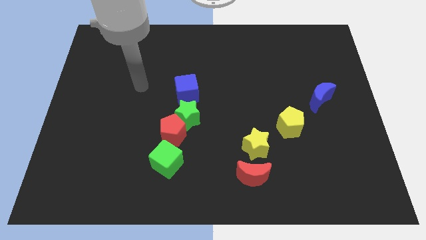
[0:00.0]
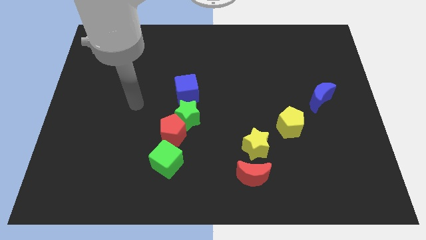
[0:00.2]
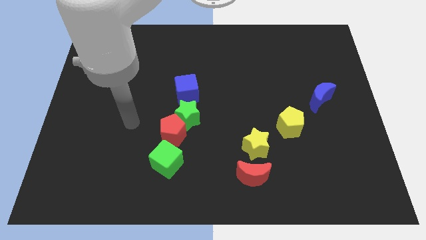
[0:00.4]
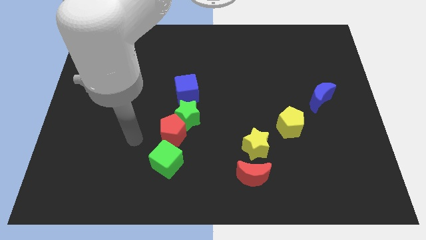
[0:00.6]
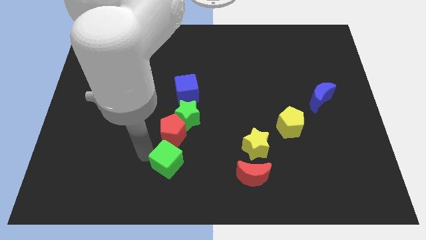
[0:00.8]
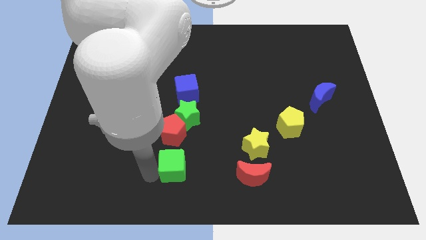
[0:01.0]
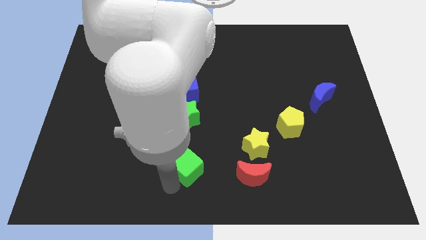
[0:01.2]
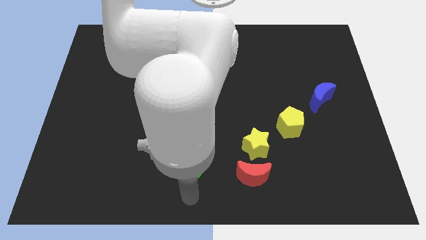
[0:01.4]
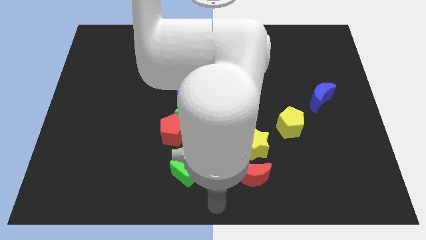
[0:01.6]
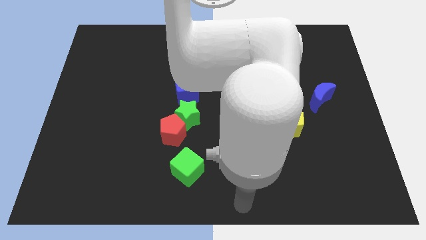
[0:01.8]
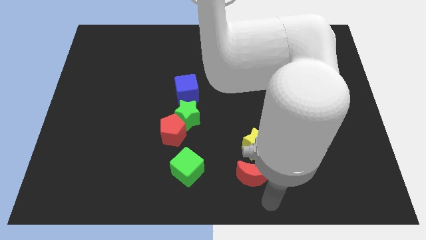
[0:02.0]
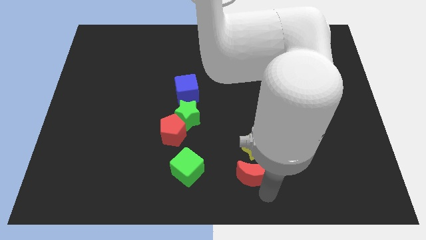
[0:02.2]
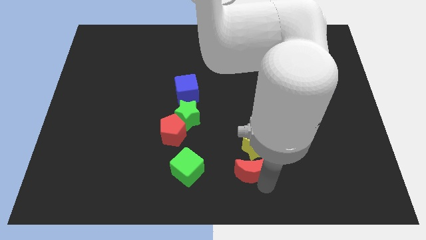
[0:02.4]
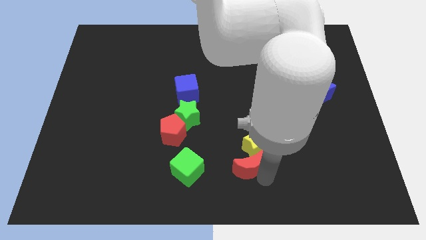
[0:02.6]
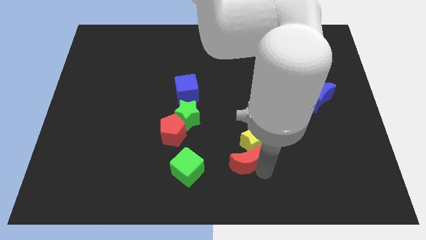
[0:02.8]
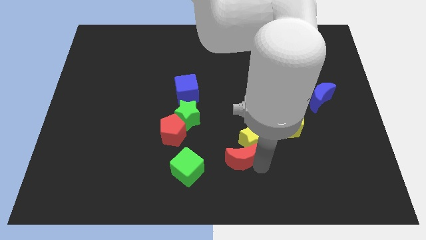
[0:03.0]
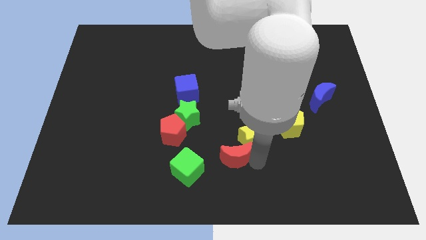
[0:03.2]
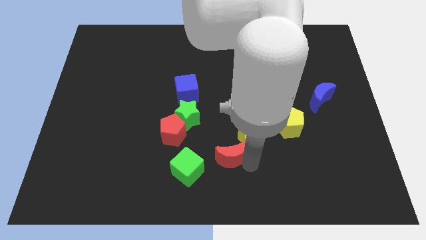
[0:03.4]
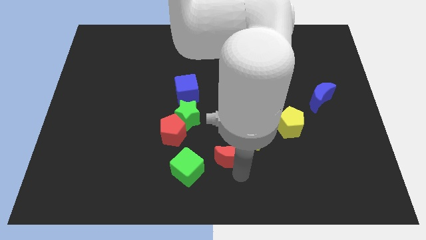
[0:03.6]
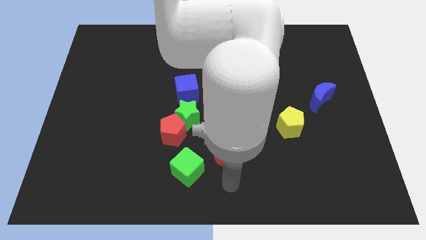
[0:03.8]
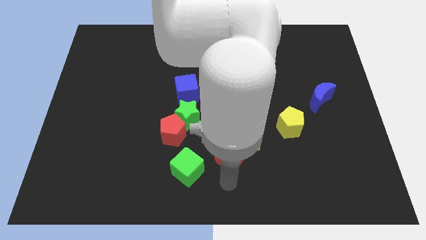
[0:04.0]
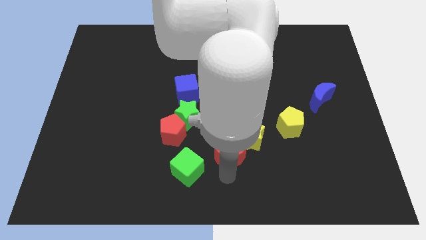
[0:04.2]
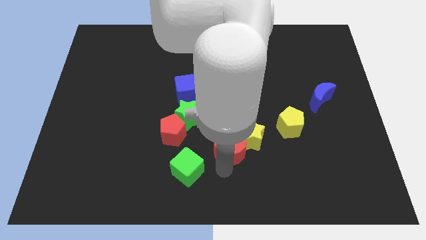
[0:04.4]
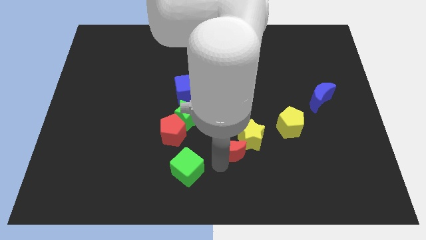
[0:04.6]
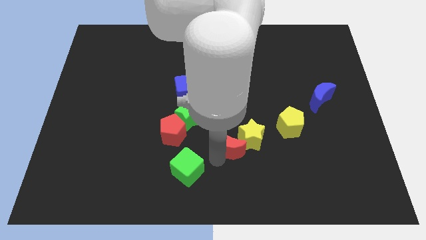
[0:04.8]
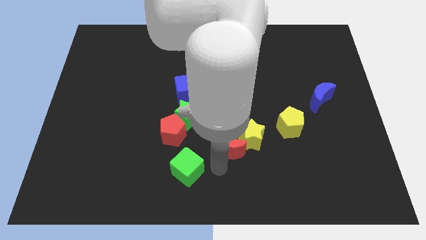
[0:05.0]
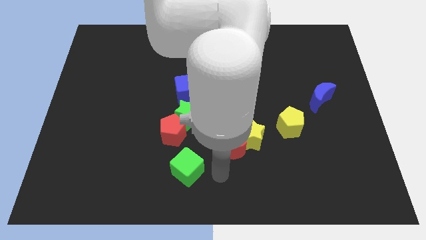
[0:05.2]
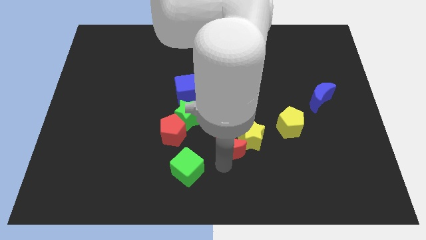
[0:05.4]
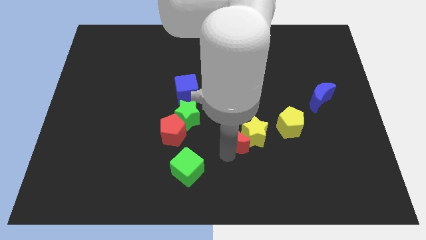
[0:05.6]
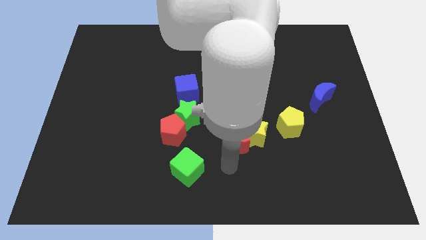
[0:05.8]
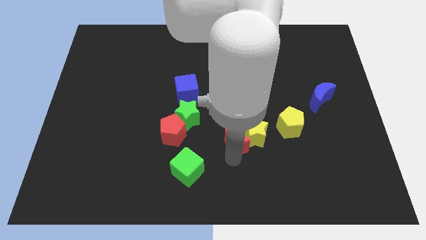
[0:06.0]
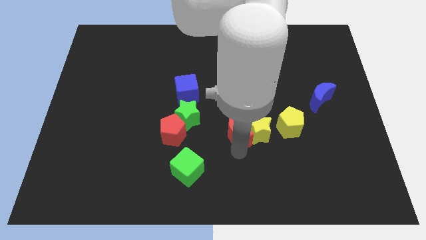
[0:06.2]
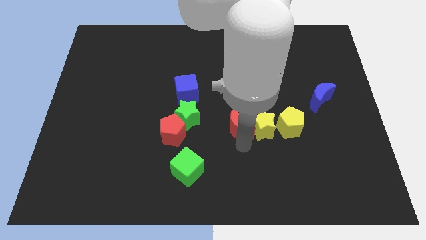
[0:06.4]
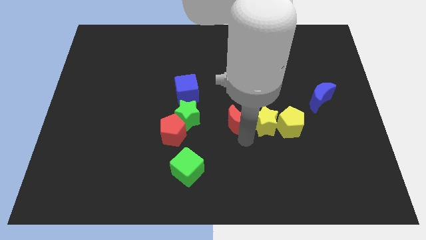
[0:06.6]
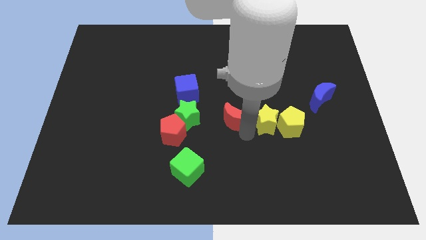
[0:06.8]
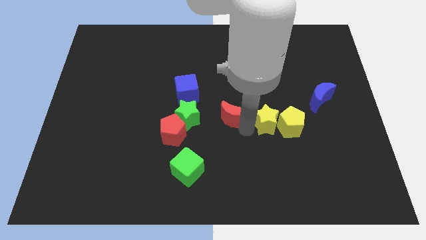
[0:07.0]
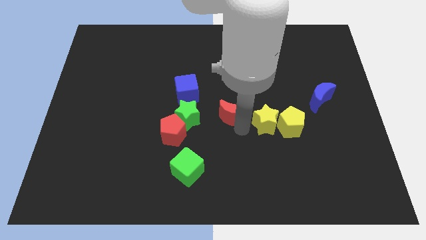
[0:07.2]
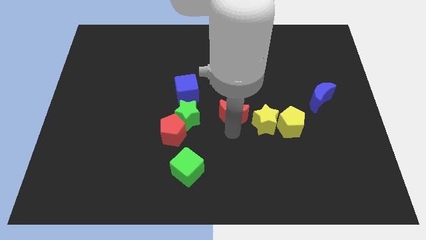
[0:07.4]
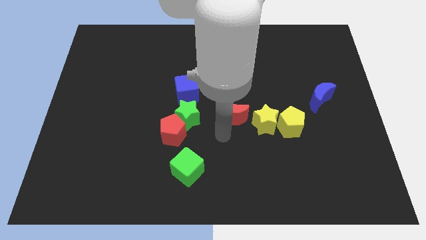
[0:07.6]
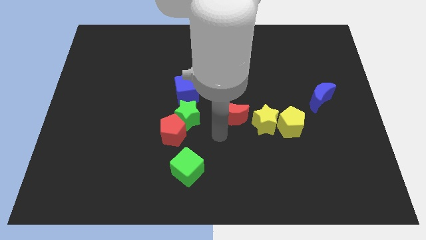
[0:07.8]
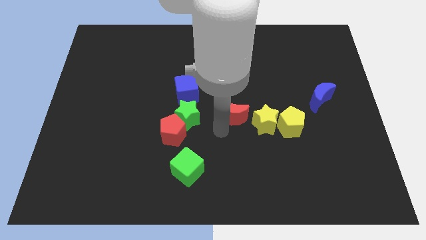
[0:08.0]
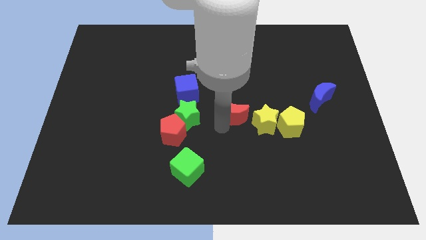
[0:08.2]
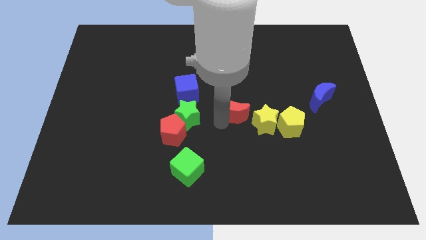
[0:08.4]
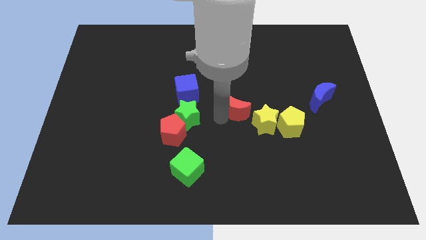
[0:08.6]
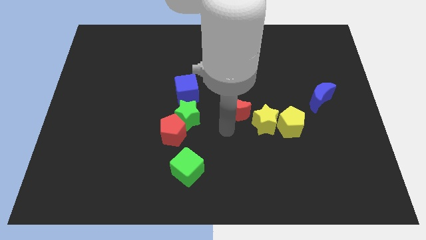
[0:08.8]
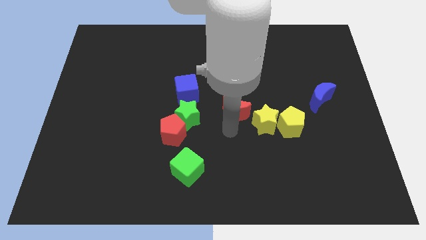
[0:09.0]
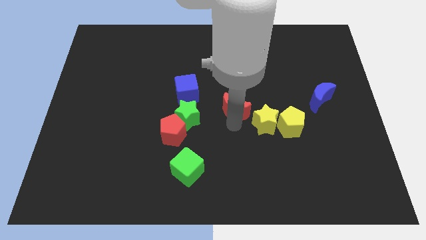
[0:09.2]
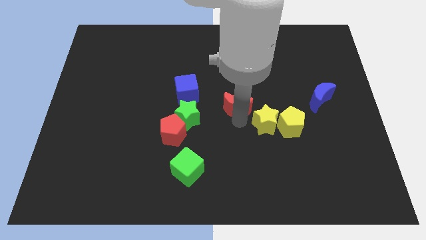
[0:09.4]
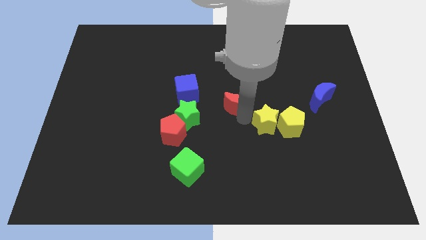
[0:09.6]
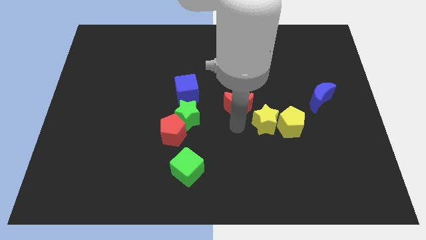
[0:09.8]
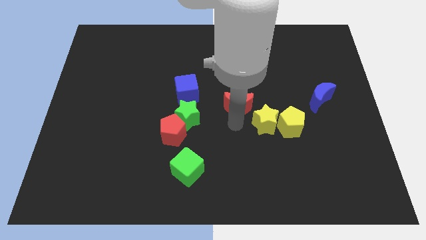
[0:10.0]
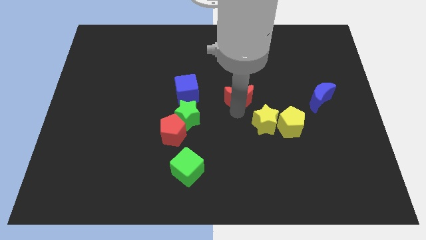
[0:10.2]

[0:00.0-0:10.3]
move the red moon upwards

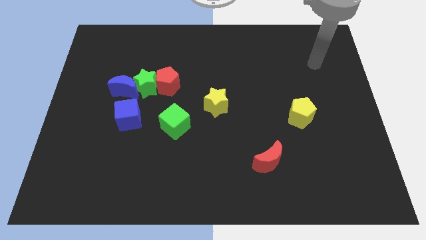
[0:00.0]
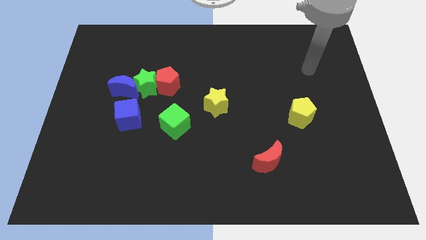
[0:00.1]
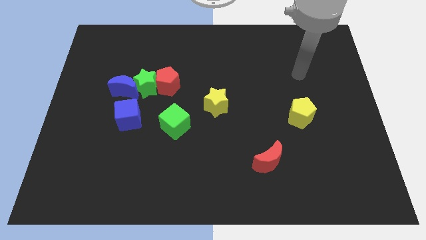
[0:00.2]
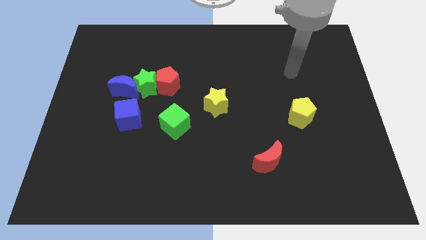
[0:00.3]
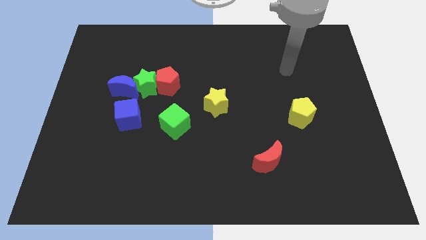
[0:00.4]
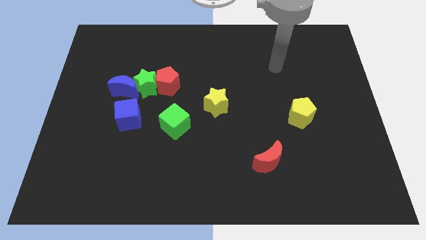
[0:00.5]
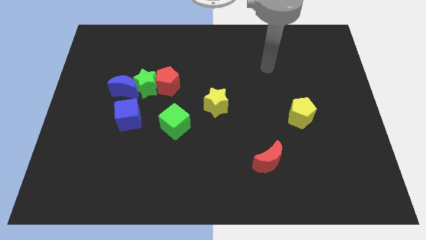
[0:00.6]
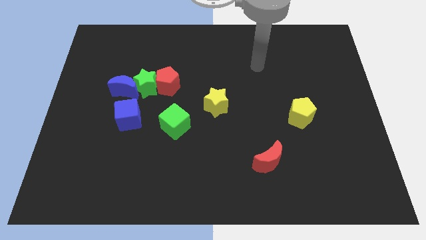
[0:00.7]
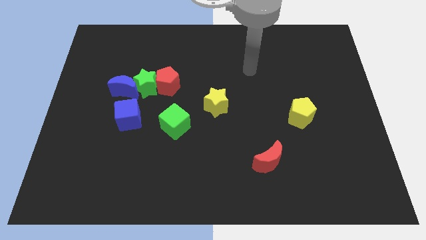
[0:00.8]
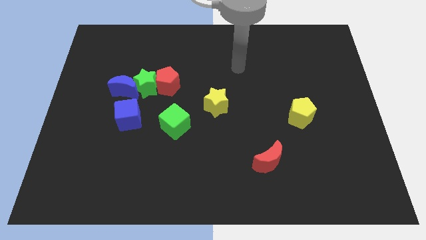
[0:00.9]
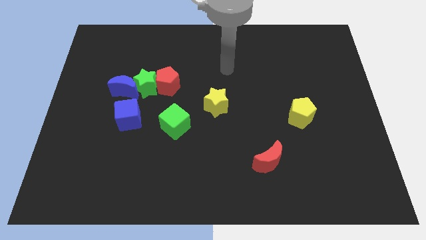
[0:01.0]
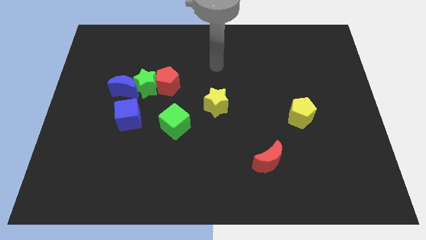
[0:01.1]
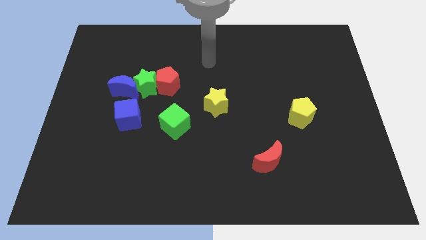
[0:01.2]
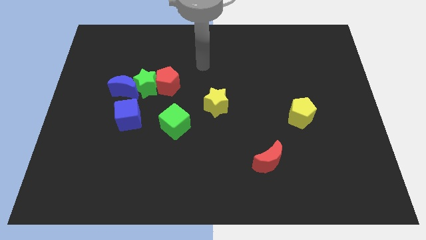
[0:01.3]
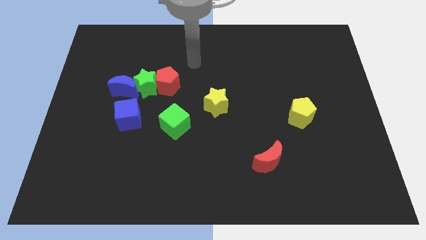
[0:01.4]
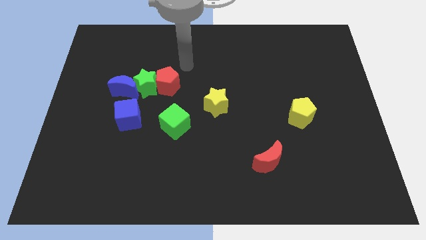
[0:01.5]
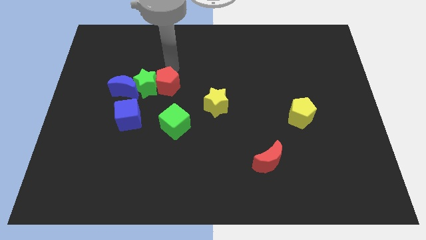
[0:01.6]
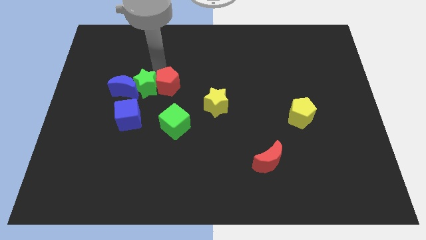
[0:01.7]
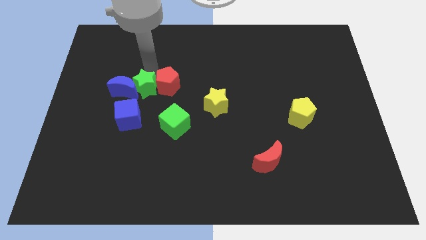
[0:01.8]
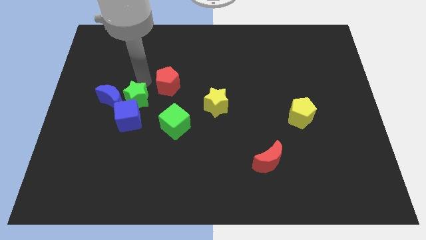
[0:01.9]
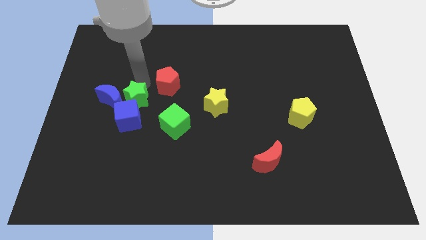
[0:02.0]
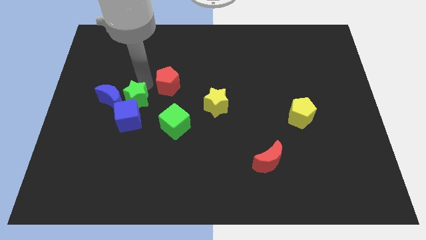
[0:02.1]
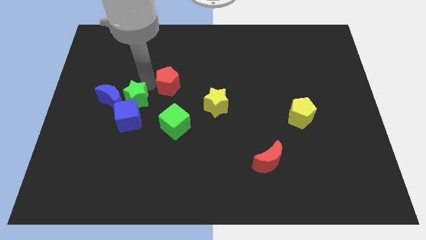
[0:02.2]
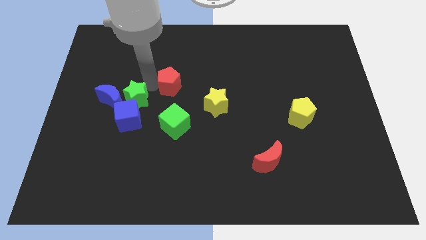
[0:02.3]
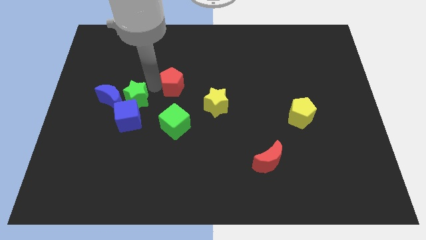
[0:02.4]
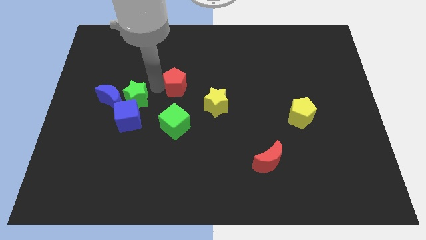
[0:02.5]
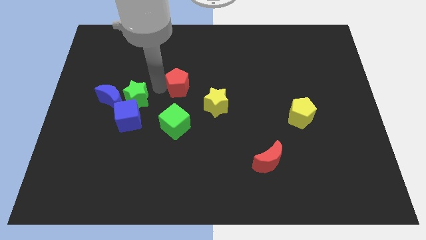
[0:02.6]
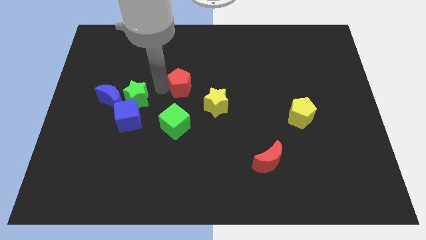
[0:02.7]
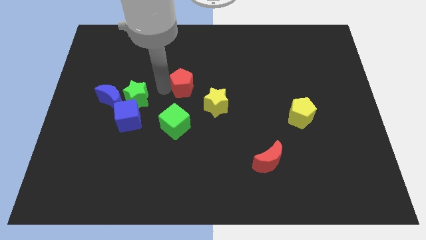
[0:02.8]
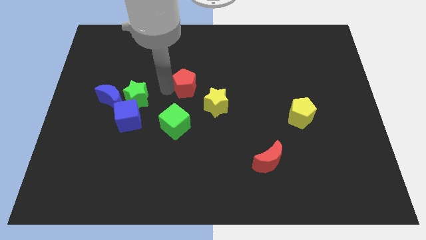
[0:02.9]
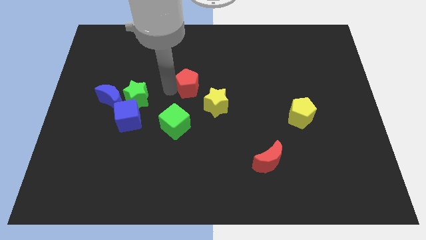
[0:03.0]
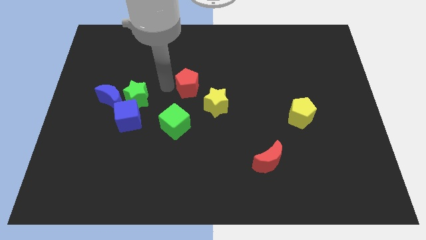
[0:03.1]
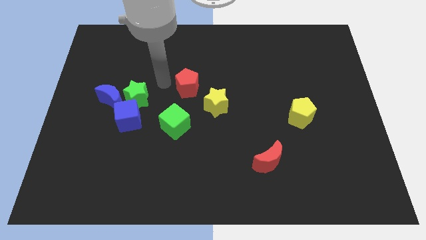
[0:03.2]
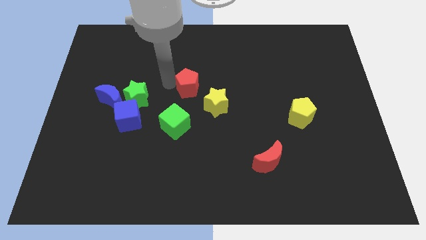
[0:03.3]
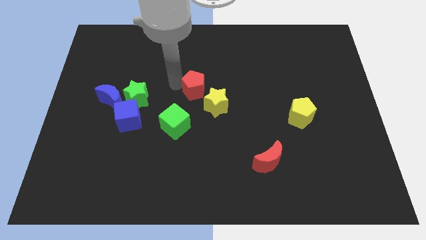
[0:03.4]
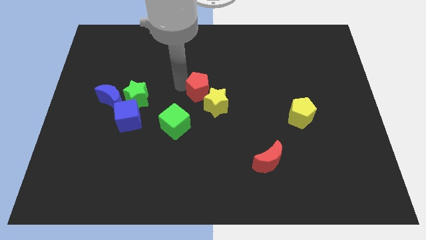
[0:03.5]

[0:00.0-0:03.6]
push the red pentagon a little right
